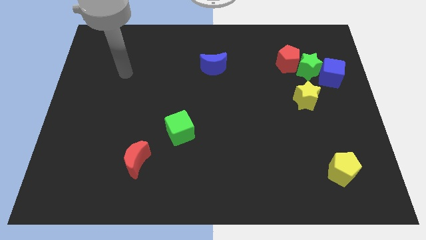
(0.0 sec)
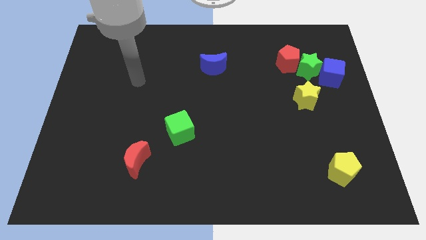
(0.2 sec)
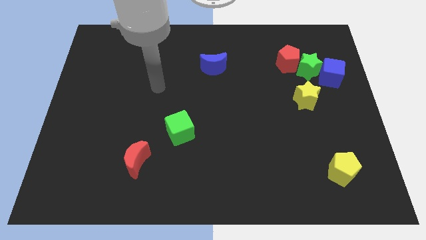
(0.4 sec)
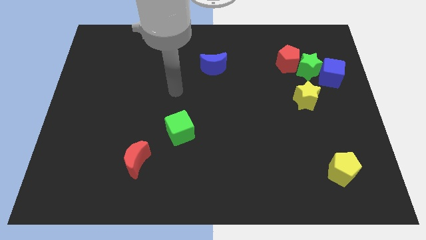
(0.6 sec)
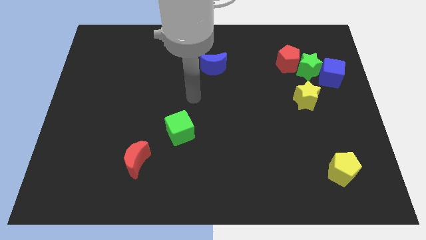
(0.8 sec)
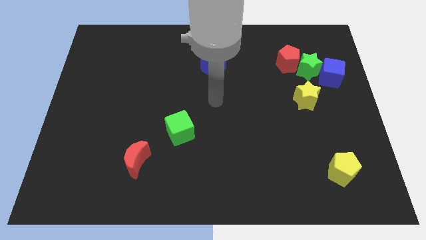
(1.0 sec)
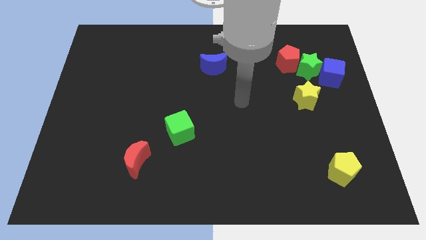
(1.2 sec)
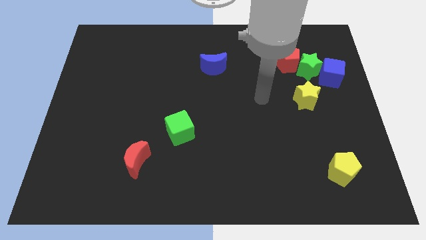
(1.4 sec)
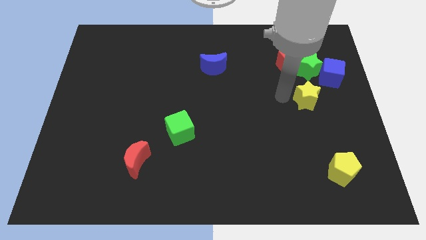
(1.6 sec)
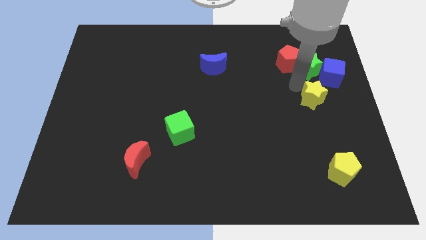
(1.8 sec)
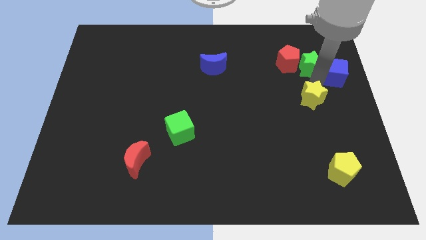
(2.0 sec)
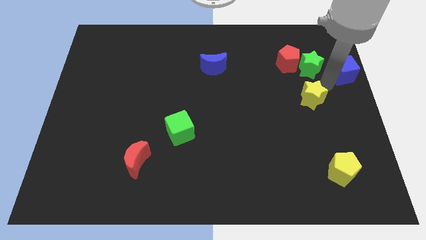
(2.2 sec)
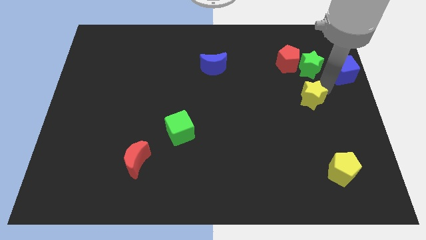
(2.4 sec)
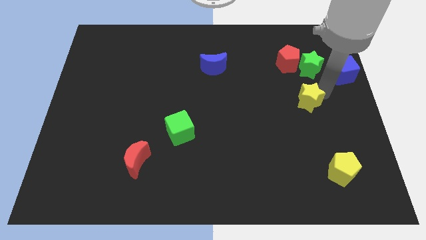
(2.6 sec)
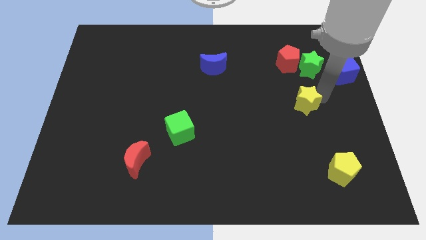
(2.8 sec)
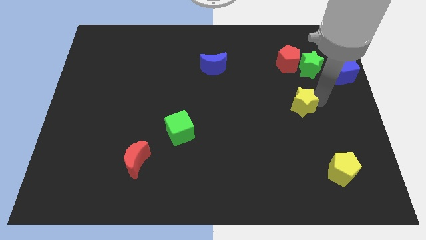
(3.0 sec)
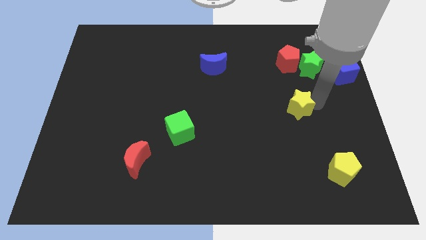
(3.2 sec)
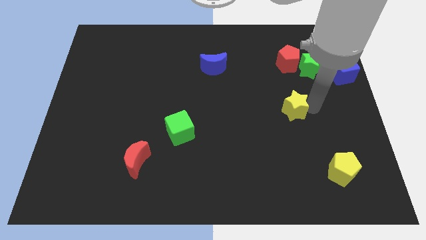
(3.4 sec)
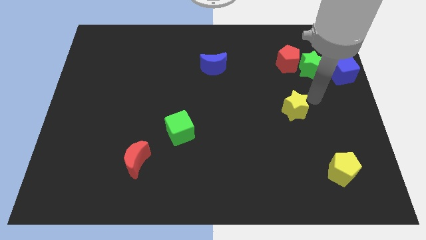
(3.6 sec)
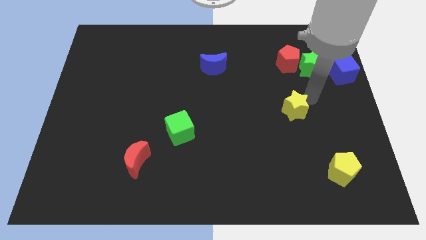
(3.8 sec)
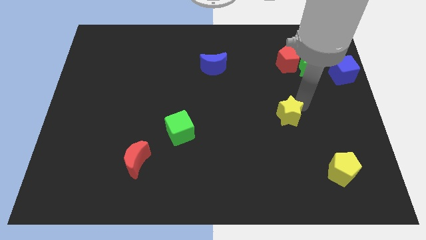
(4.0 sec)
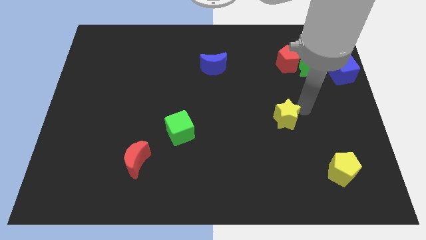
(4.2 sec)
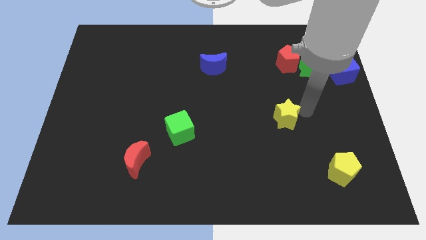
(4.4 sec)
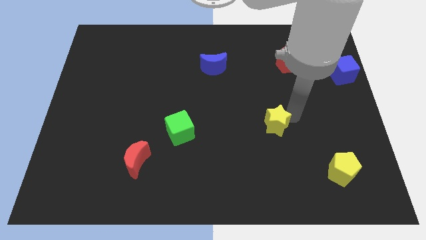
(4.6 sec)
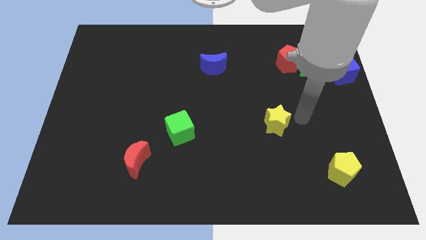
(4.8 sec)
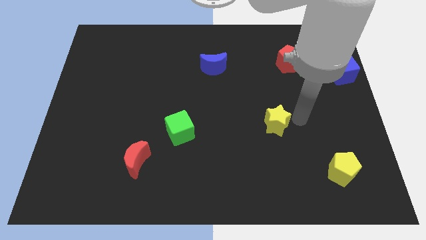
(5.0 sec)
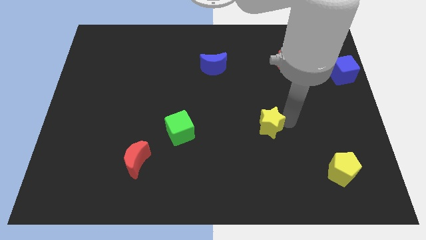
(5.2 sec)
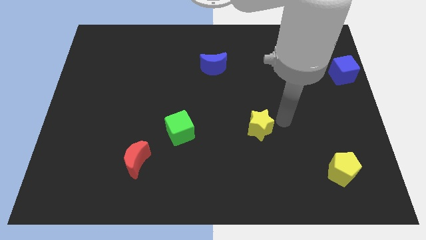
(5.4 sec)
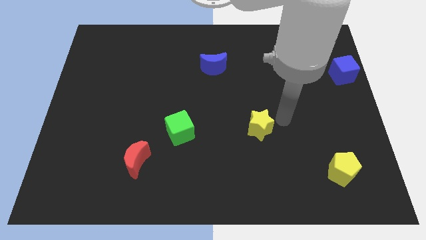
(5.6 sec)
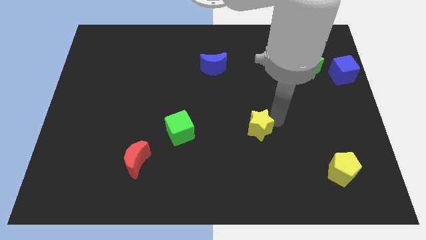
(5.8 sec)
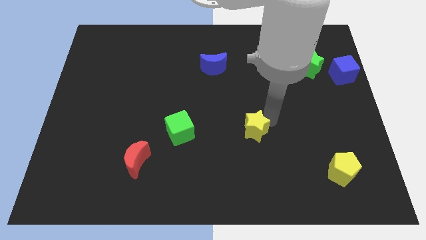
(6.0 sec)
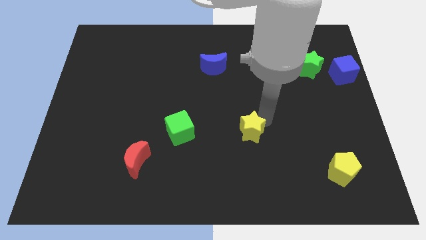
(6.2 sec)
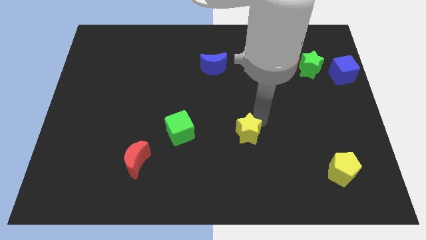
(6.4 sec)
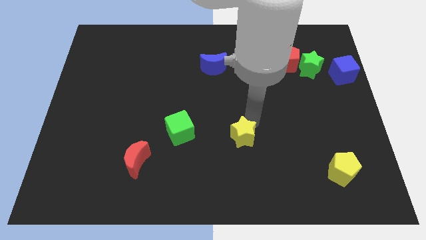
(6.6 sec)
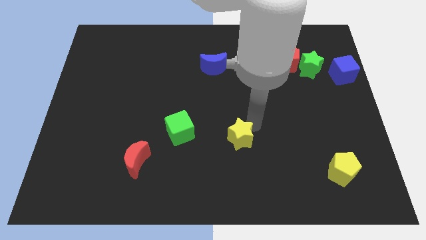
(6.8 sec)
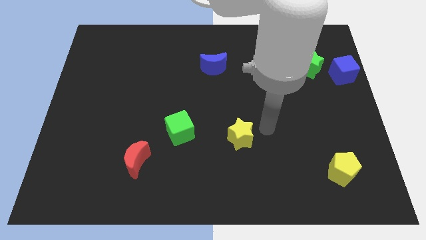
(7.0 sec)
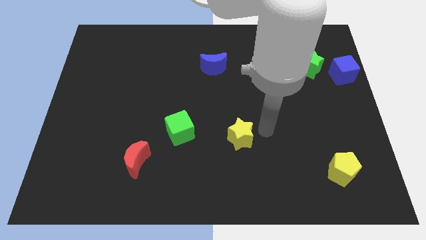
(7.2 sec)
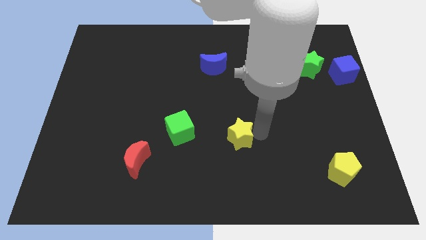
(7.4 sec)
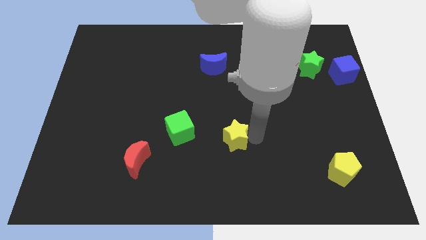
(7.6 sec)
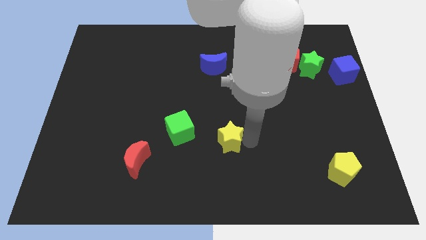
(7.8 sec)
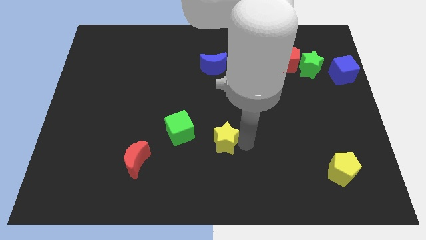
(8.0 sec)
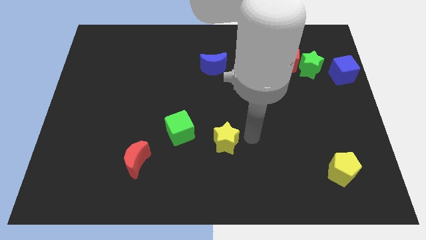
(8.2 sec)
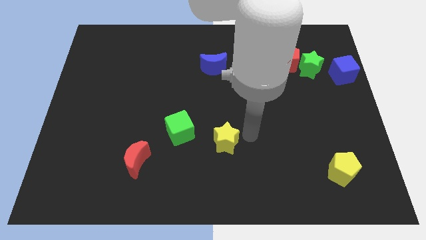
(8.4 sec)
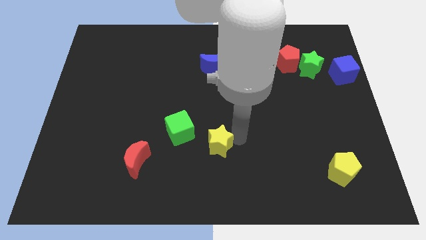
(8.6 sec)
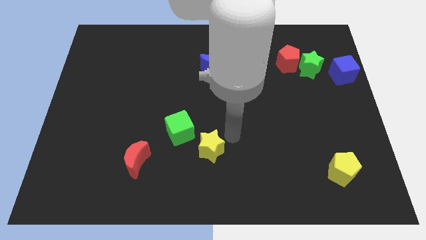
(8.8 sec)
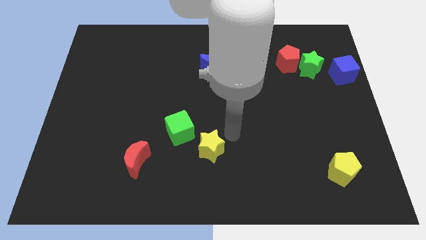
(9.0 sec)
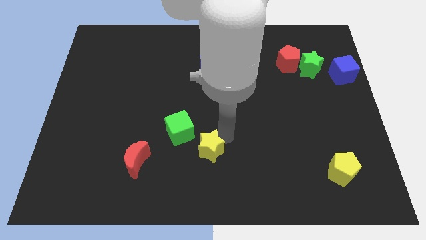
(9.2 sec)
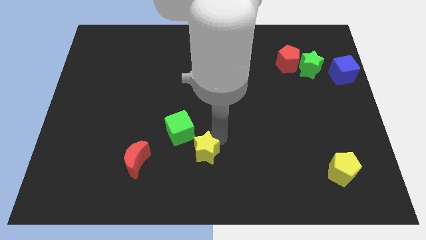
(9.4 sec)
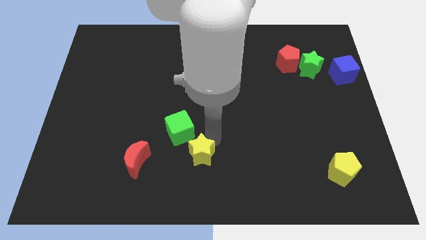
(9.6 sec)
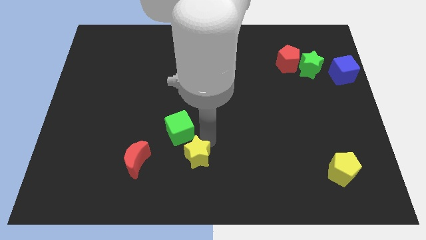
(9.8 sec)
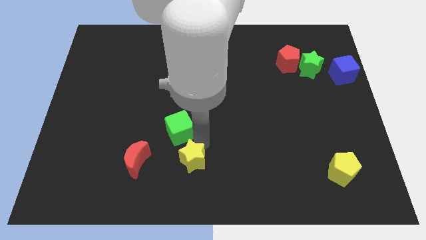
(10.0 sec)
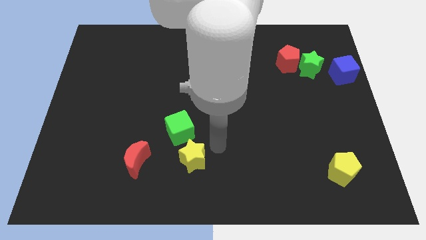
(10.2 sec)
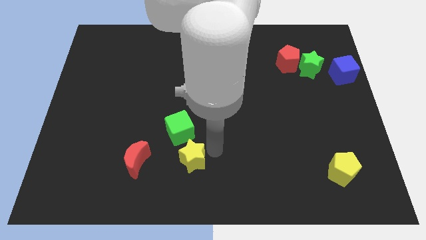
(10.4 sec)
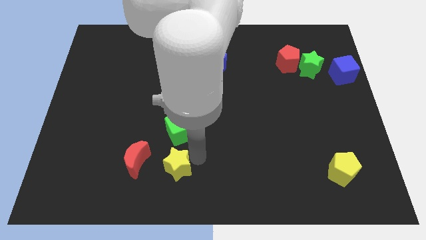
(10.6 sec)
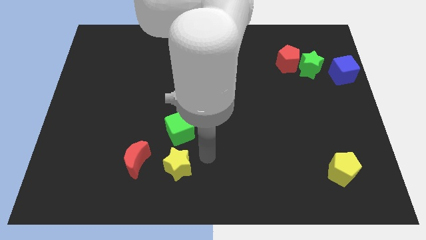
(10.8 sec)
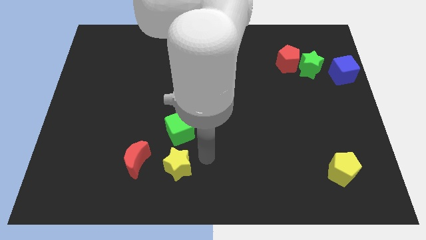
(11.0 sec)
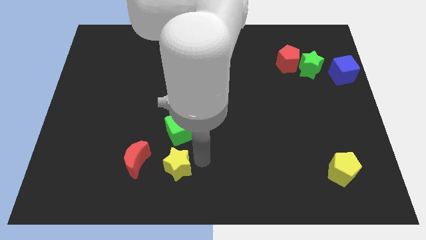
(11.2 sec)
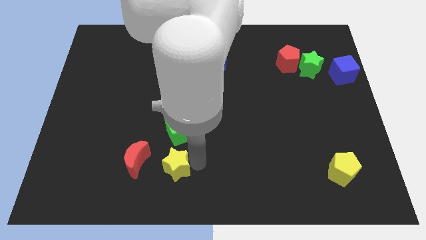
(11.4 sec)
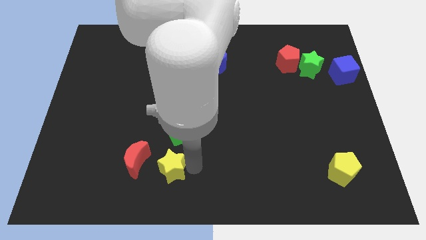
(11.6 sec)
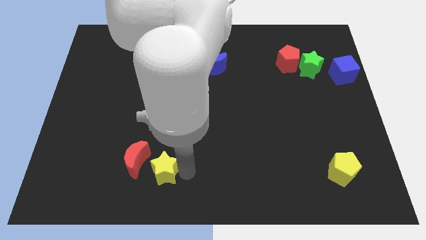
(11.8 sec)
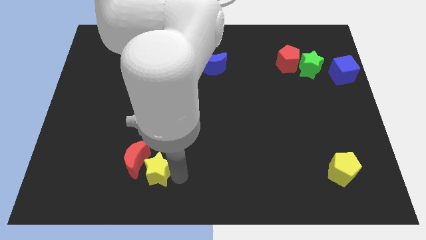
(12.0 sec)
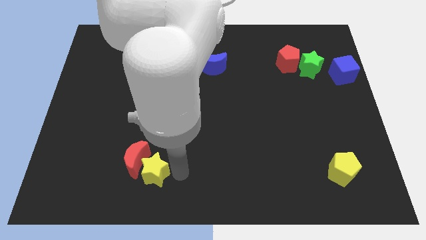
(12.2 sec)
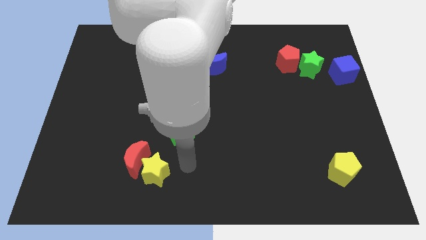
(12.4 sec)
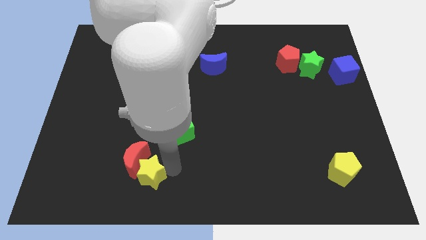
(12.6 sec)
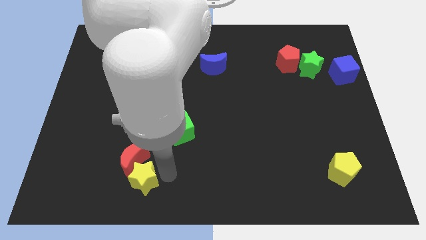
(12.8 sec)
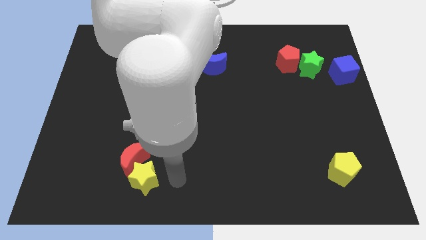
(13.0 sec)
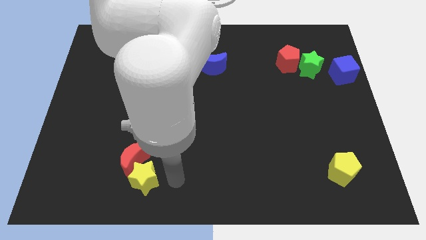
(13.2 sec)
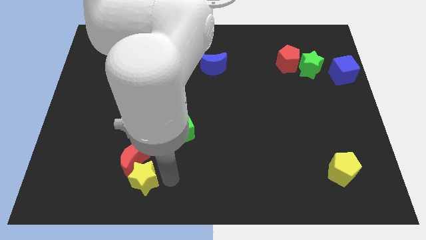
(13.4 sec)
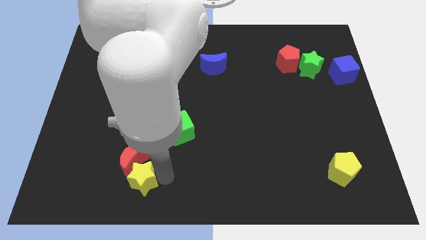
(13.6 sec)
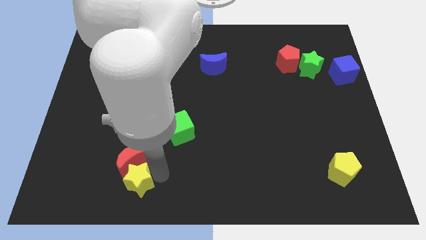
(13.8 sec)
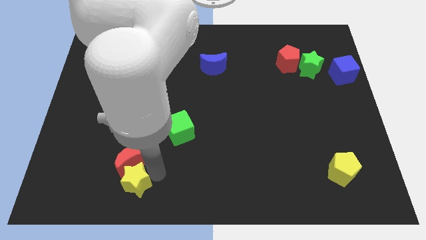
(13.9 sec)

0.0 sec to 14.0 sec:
move the yellow star diagonally down and to the left of the red moon

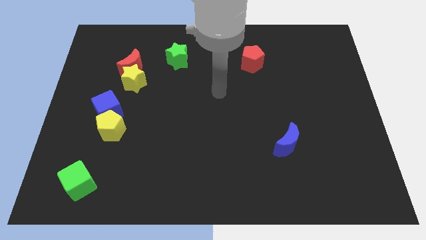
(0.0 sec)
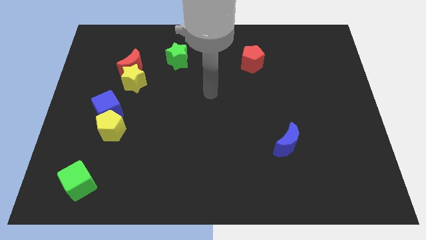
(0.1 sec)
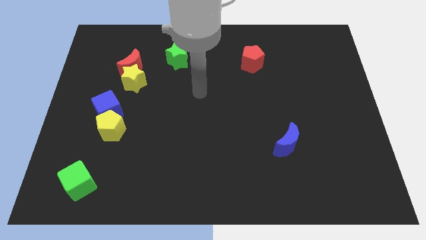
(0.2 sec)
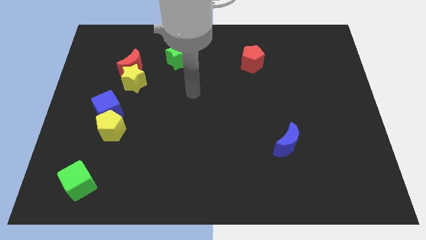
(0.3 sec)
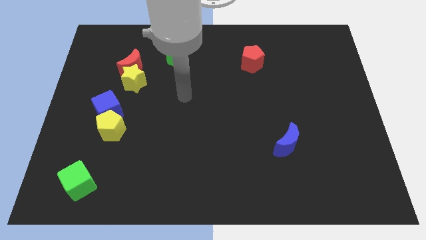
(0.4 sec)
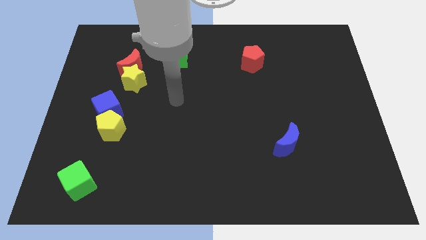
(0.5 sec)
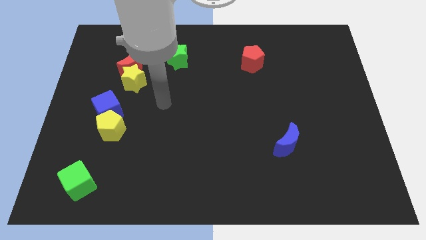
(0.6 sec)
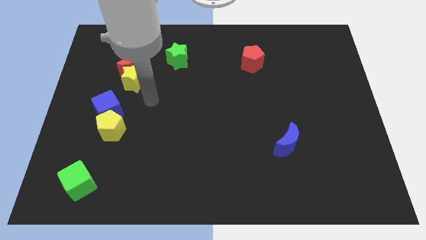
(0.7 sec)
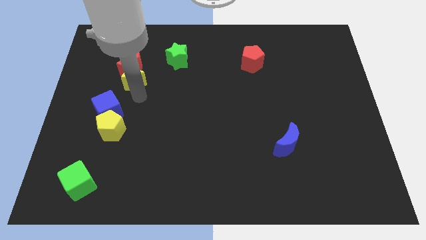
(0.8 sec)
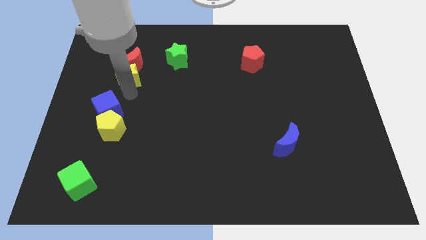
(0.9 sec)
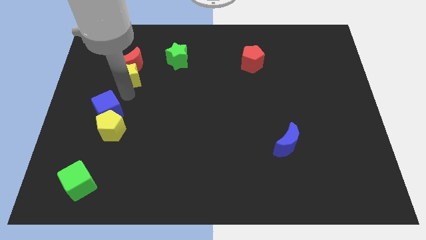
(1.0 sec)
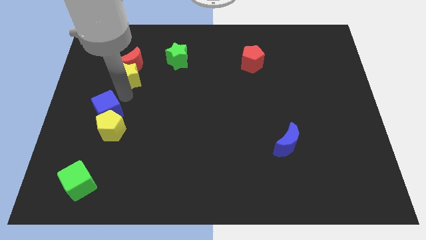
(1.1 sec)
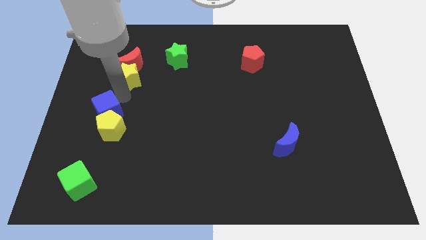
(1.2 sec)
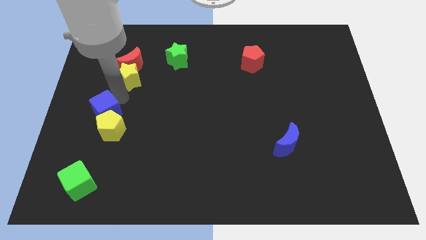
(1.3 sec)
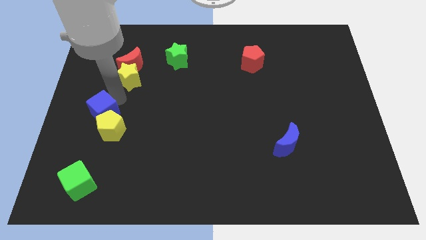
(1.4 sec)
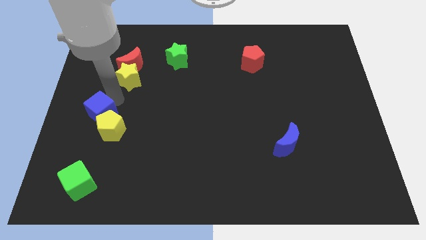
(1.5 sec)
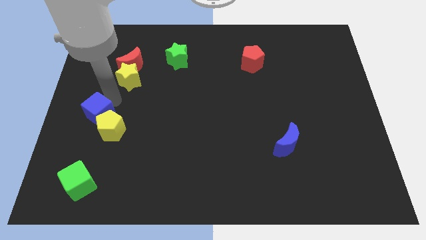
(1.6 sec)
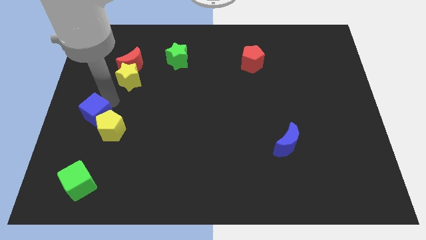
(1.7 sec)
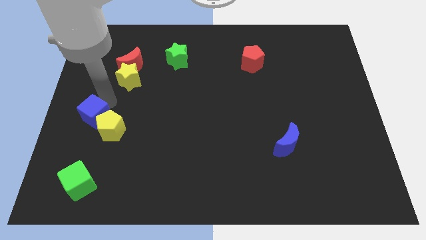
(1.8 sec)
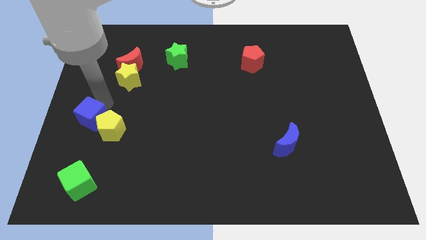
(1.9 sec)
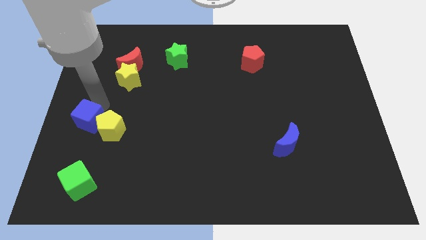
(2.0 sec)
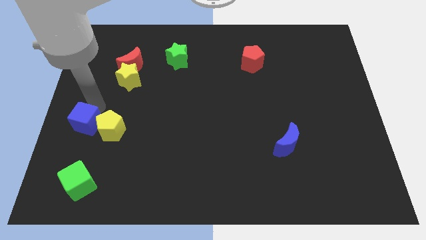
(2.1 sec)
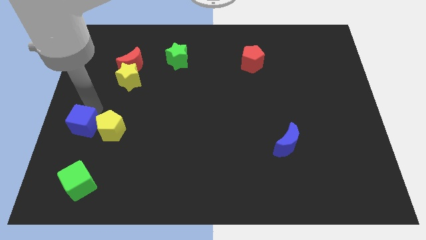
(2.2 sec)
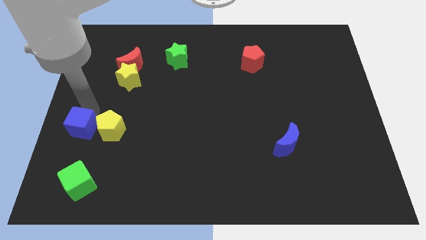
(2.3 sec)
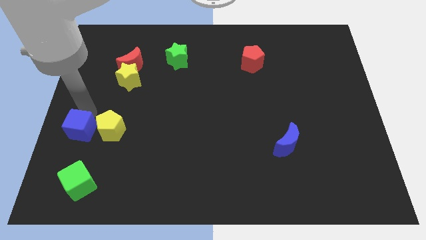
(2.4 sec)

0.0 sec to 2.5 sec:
push the blue cube to the bottom left side of the yellow pentagon
